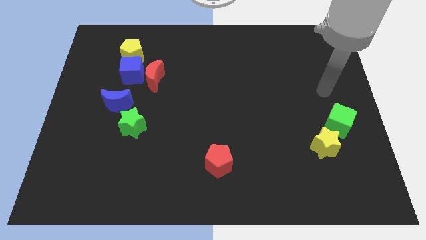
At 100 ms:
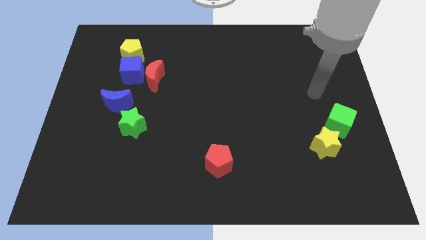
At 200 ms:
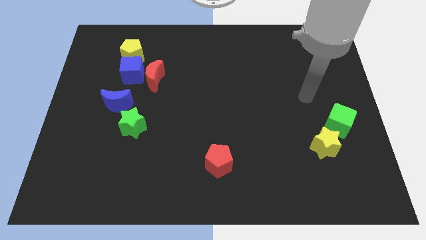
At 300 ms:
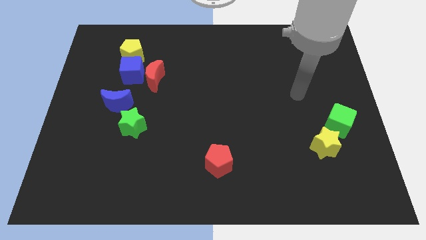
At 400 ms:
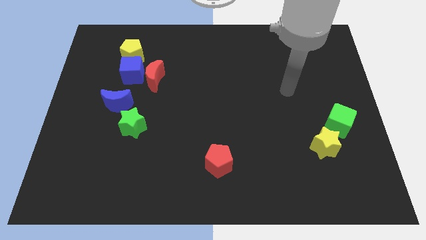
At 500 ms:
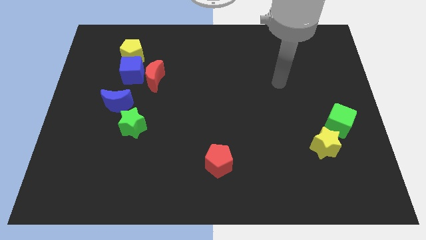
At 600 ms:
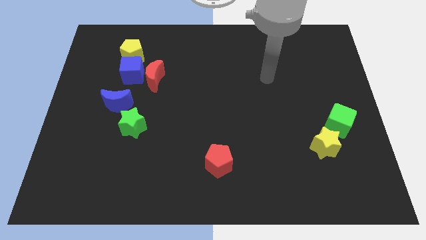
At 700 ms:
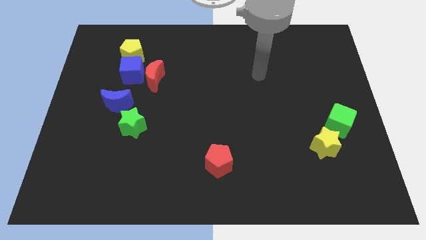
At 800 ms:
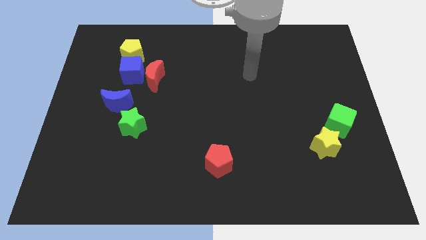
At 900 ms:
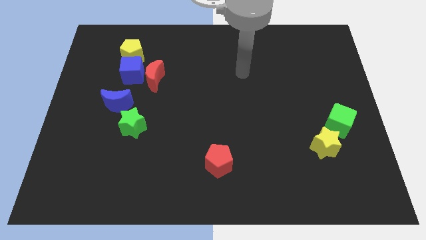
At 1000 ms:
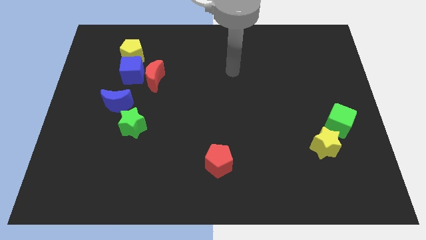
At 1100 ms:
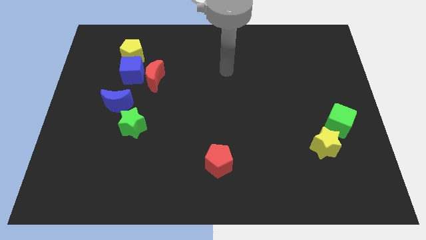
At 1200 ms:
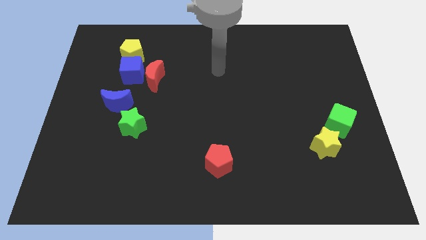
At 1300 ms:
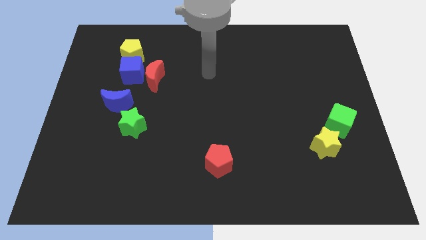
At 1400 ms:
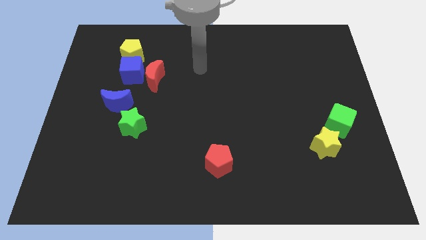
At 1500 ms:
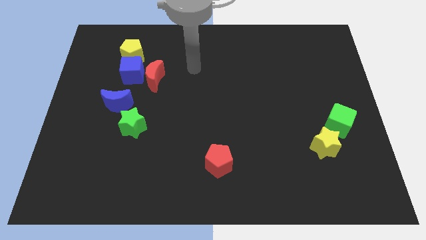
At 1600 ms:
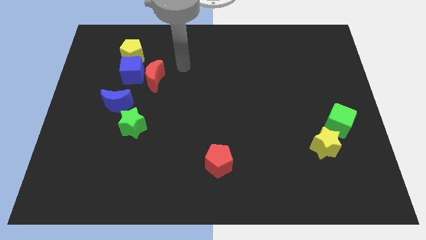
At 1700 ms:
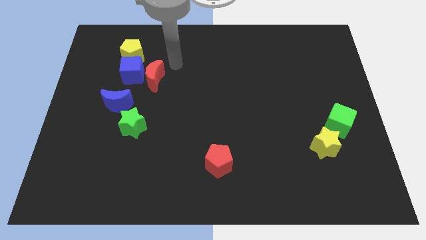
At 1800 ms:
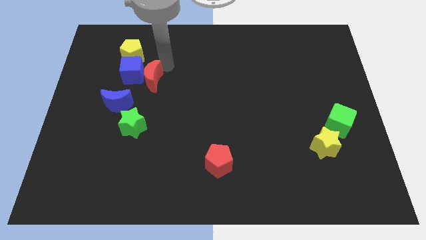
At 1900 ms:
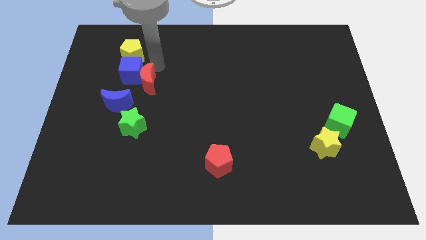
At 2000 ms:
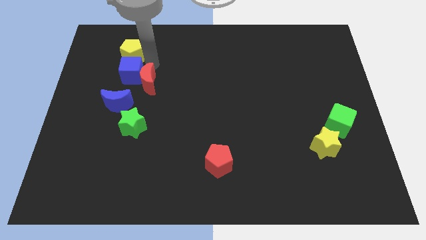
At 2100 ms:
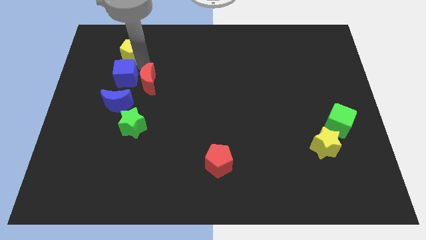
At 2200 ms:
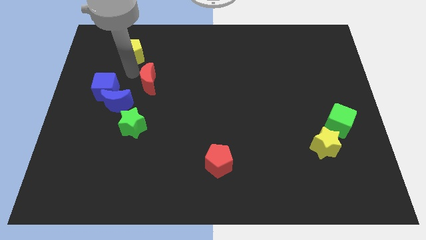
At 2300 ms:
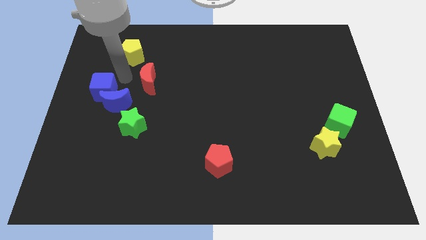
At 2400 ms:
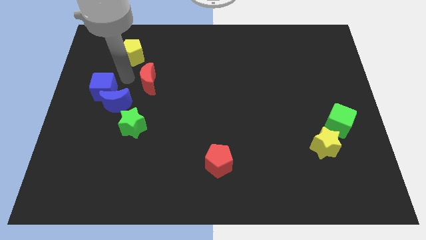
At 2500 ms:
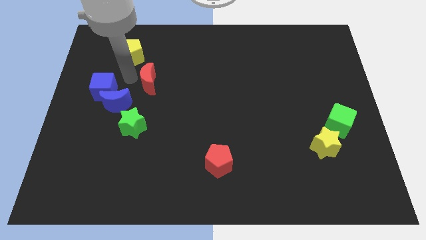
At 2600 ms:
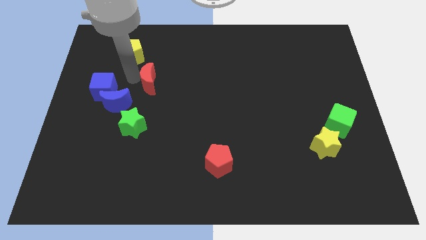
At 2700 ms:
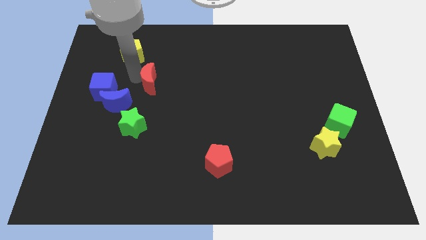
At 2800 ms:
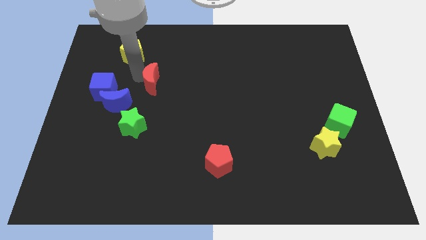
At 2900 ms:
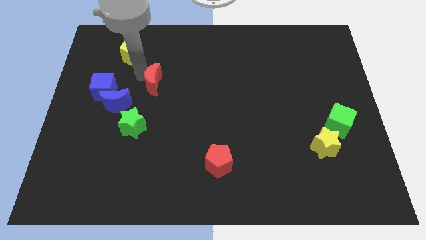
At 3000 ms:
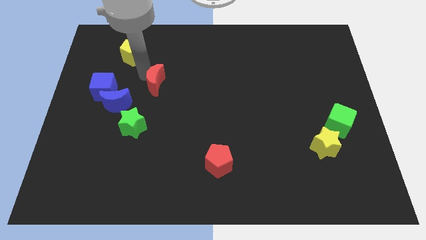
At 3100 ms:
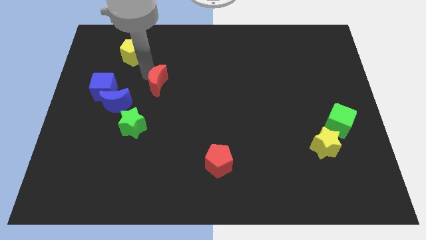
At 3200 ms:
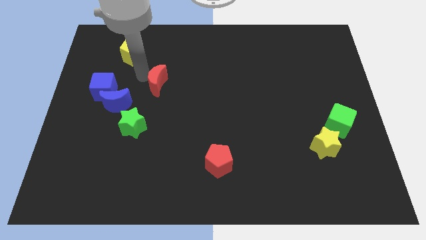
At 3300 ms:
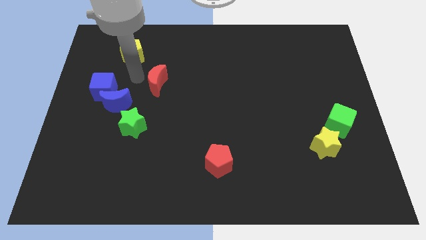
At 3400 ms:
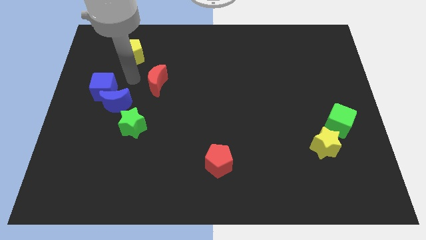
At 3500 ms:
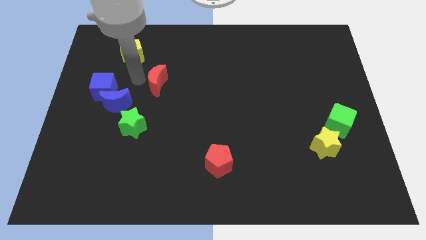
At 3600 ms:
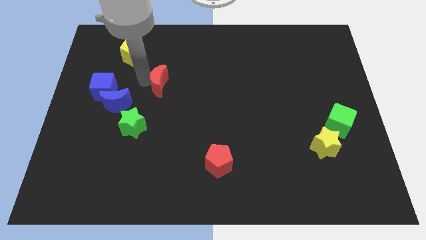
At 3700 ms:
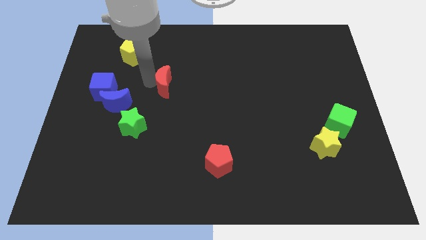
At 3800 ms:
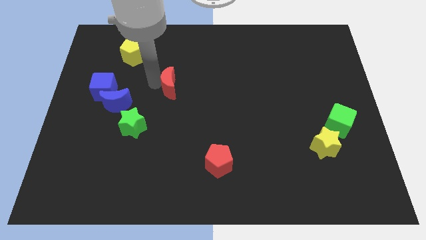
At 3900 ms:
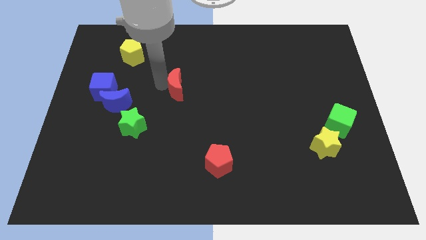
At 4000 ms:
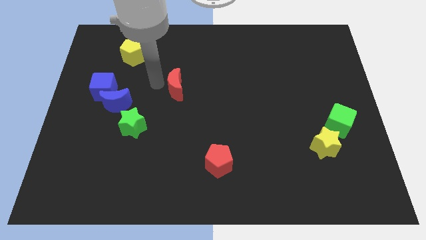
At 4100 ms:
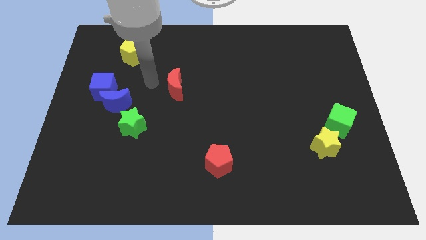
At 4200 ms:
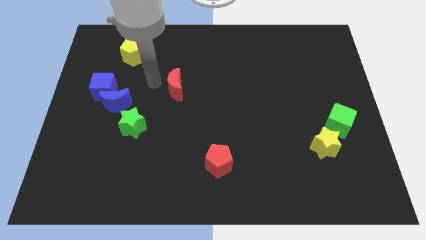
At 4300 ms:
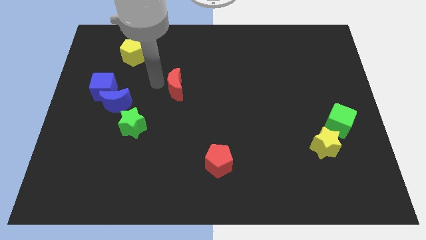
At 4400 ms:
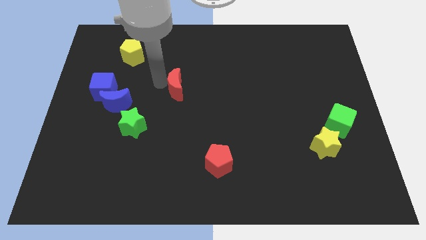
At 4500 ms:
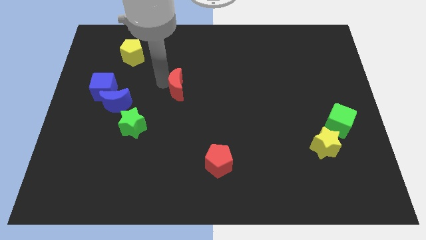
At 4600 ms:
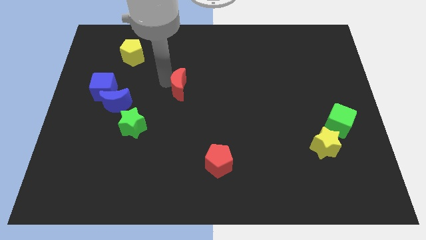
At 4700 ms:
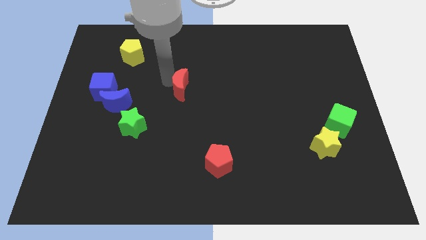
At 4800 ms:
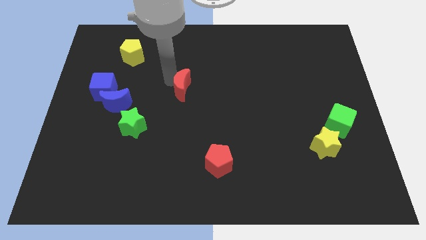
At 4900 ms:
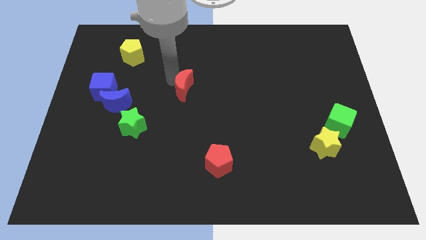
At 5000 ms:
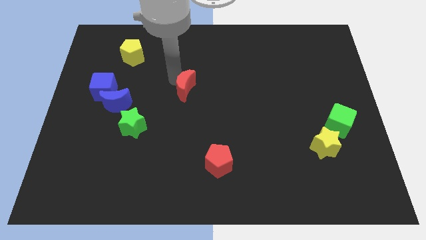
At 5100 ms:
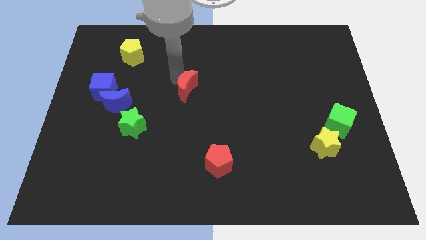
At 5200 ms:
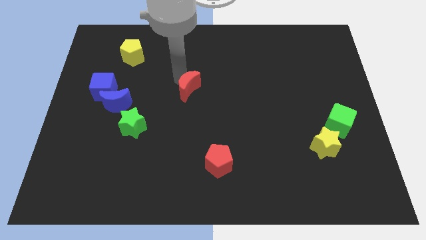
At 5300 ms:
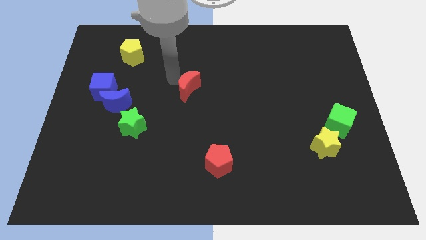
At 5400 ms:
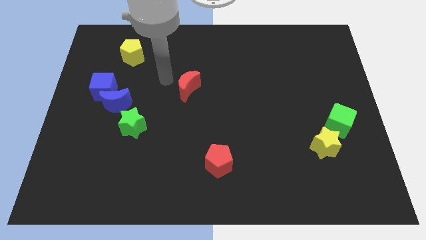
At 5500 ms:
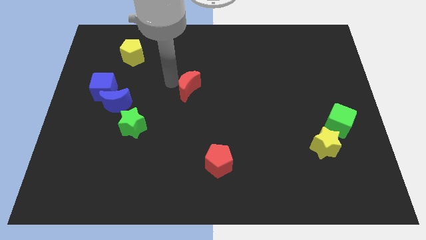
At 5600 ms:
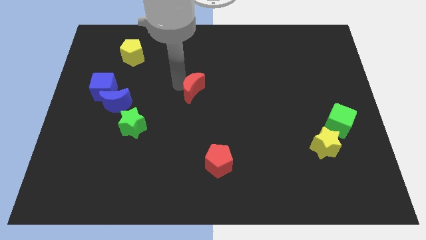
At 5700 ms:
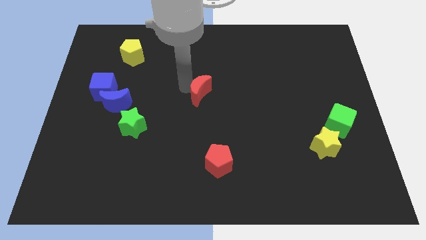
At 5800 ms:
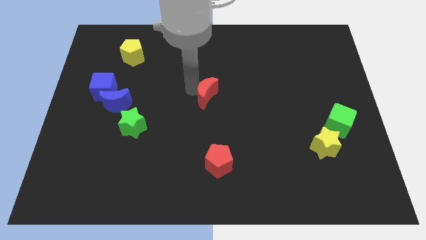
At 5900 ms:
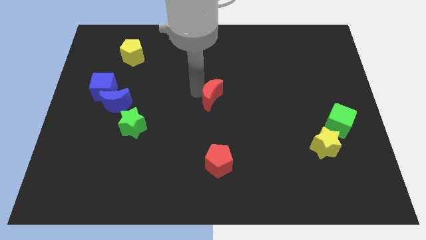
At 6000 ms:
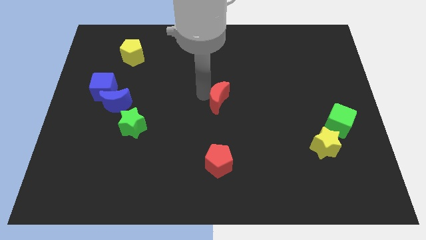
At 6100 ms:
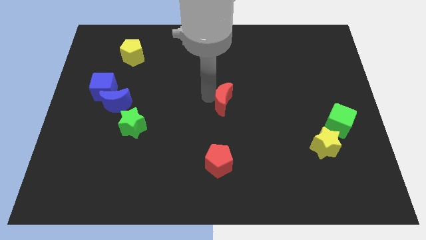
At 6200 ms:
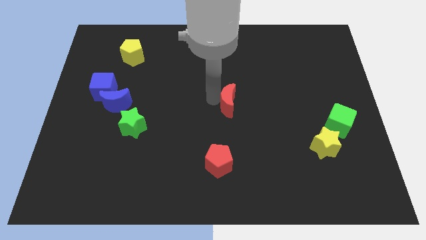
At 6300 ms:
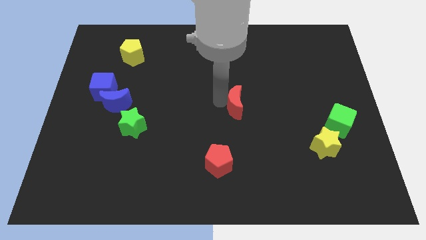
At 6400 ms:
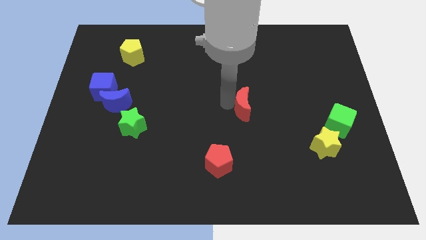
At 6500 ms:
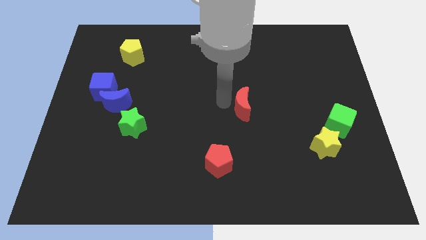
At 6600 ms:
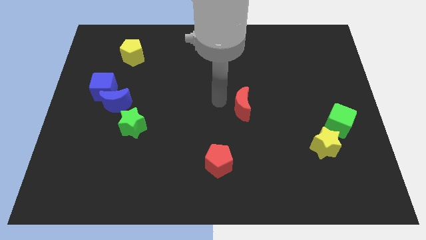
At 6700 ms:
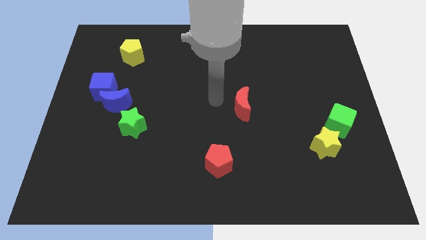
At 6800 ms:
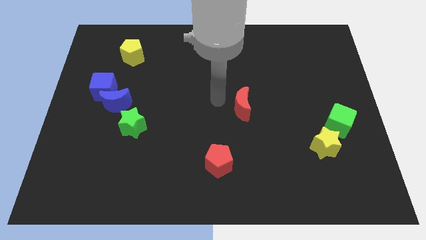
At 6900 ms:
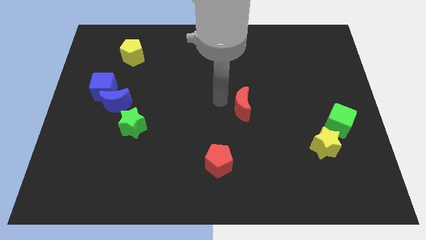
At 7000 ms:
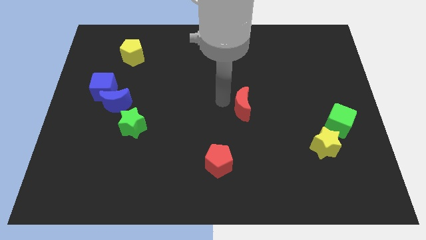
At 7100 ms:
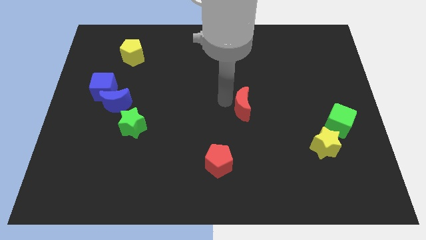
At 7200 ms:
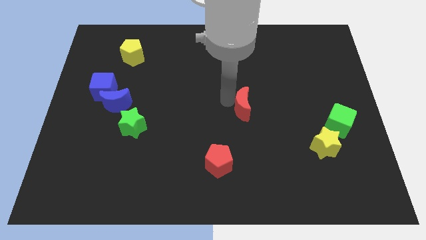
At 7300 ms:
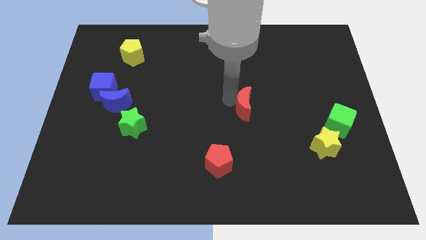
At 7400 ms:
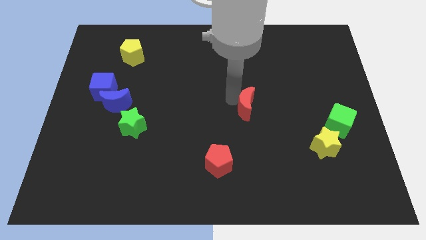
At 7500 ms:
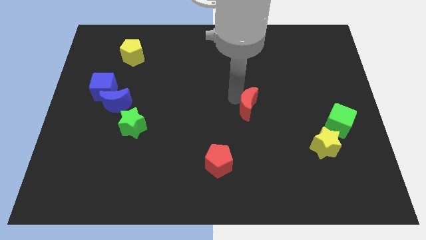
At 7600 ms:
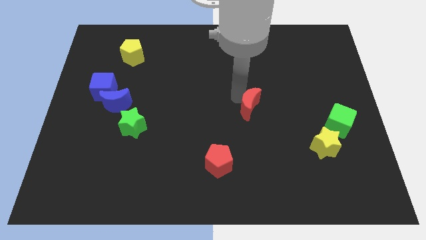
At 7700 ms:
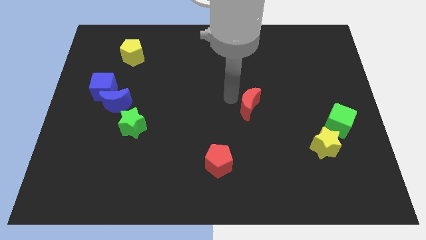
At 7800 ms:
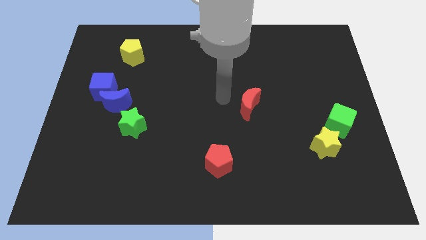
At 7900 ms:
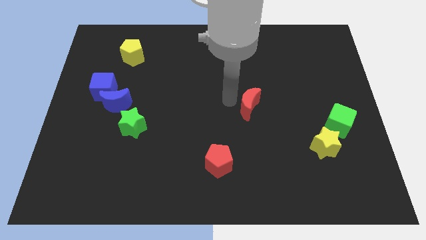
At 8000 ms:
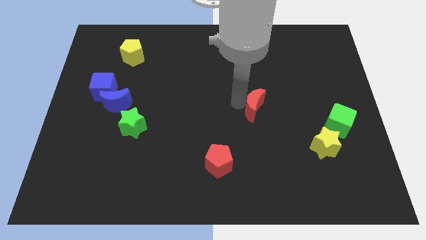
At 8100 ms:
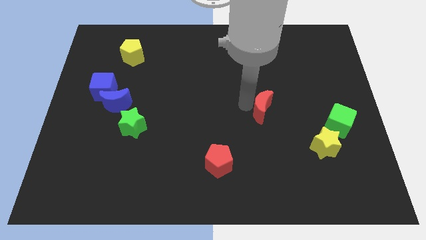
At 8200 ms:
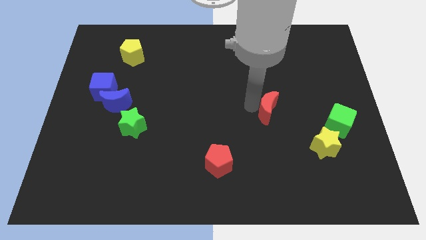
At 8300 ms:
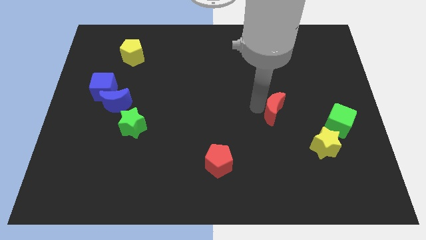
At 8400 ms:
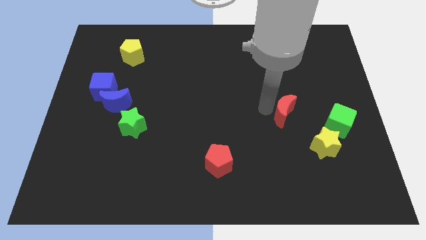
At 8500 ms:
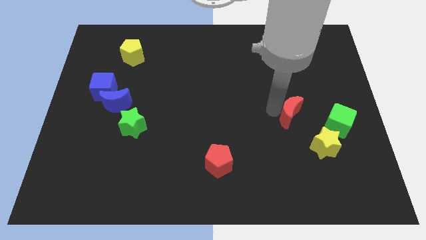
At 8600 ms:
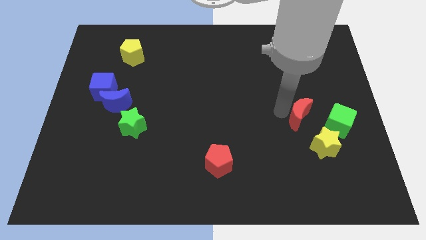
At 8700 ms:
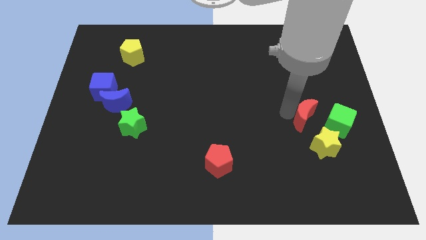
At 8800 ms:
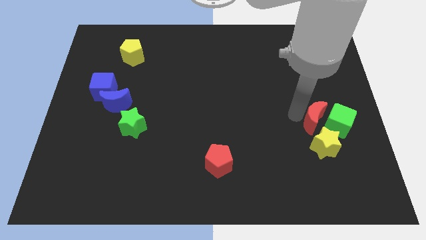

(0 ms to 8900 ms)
move the red moon towards the green cube
